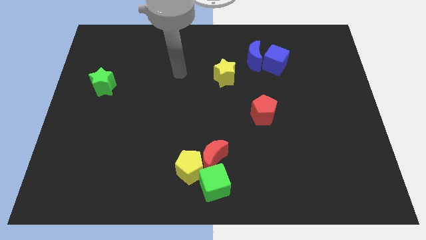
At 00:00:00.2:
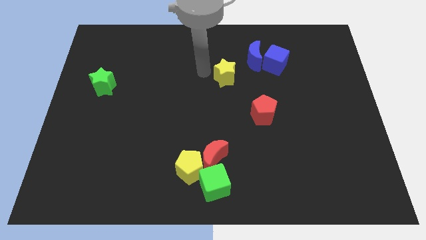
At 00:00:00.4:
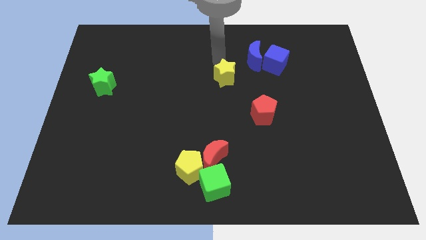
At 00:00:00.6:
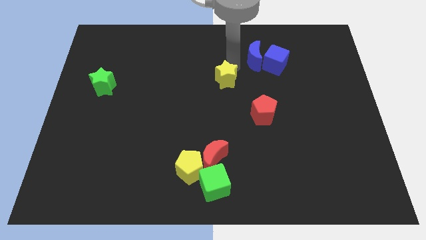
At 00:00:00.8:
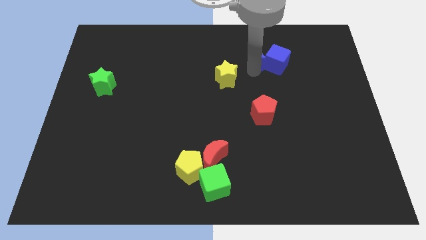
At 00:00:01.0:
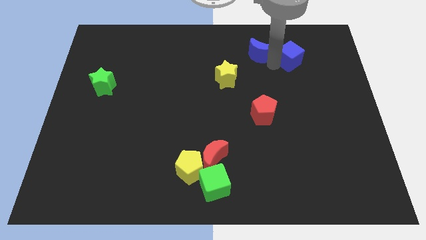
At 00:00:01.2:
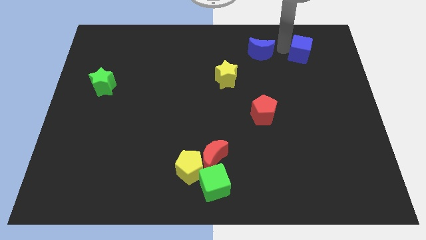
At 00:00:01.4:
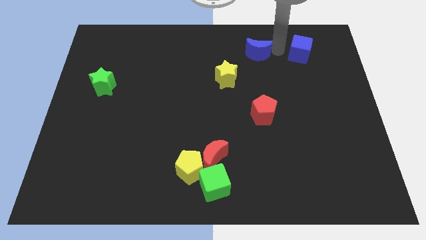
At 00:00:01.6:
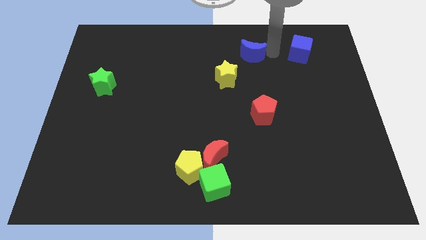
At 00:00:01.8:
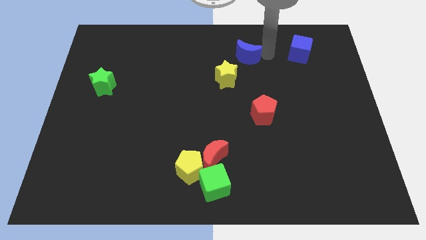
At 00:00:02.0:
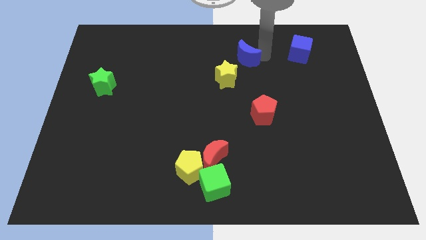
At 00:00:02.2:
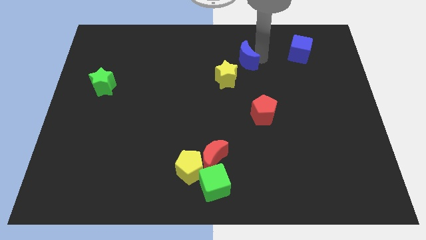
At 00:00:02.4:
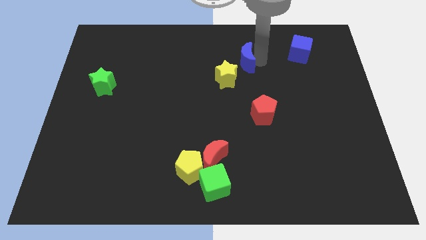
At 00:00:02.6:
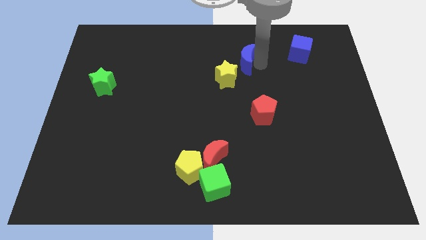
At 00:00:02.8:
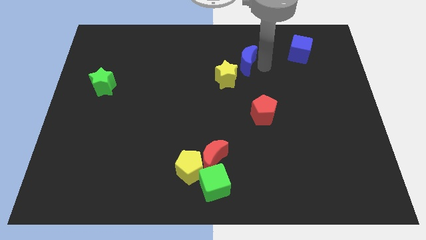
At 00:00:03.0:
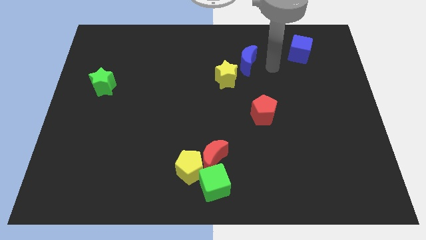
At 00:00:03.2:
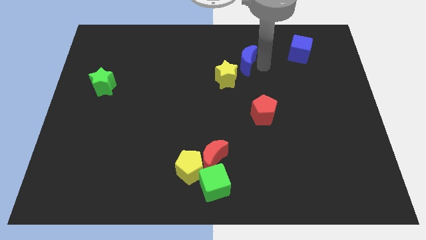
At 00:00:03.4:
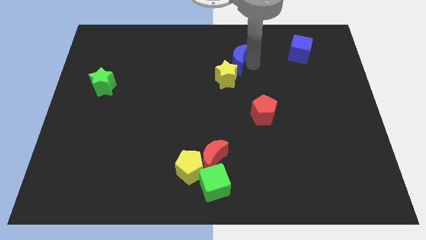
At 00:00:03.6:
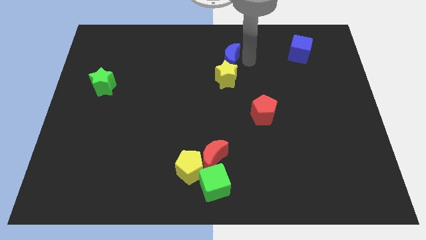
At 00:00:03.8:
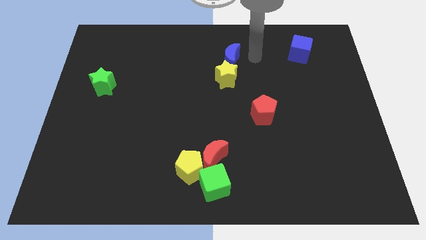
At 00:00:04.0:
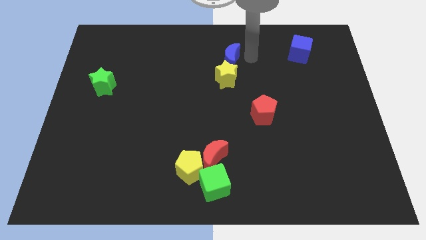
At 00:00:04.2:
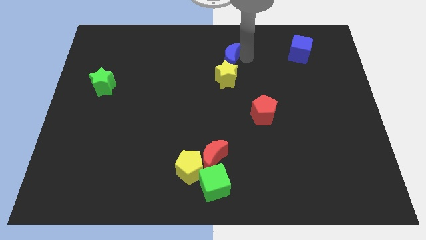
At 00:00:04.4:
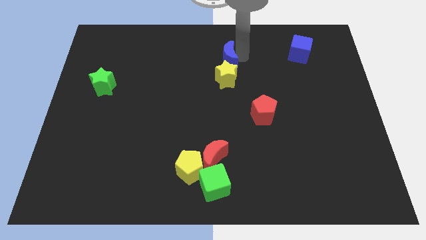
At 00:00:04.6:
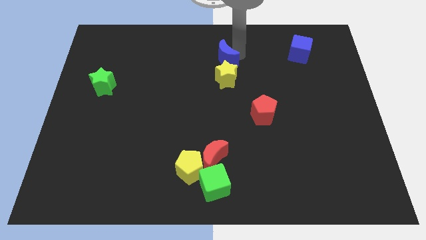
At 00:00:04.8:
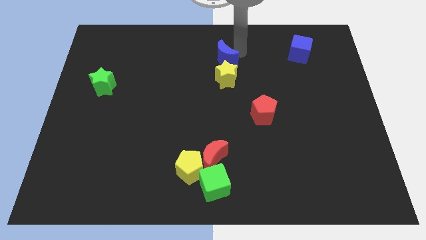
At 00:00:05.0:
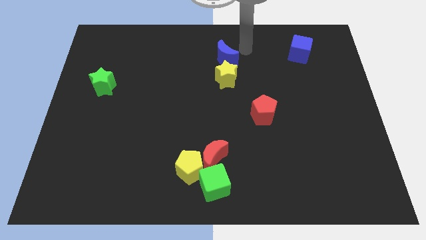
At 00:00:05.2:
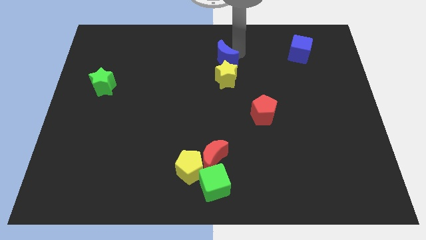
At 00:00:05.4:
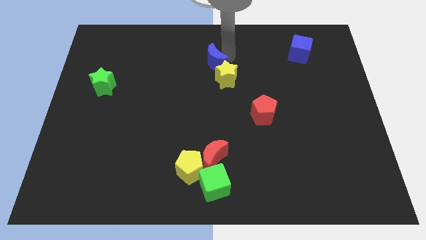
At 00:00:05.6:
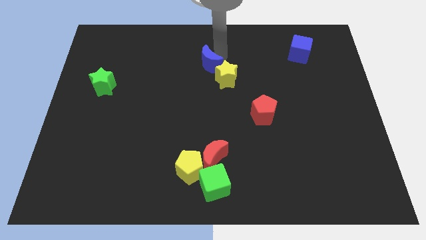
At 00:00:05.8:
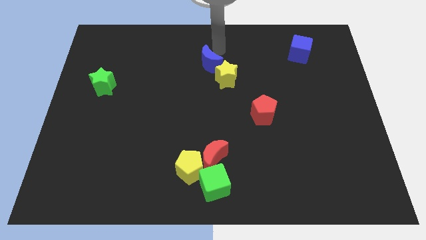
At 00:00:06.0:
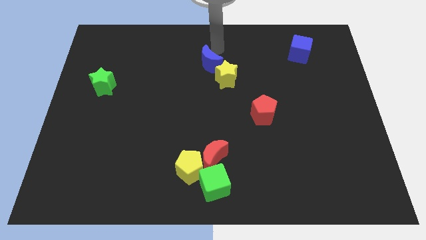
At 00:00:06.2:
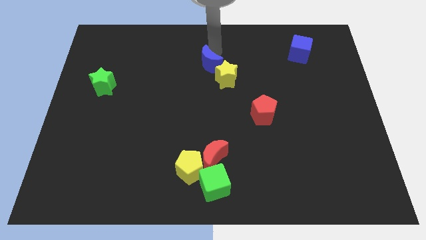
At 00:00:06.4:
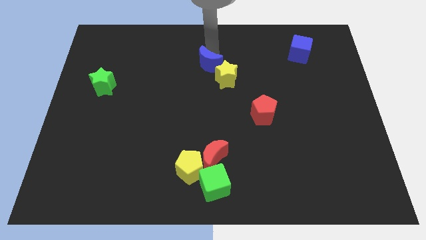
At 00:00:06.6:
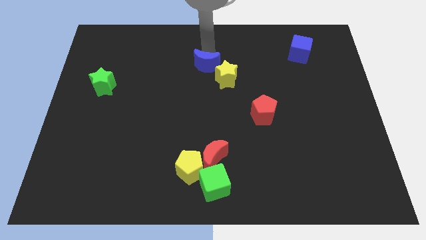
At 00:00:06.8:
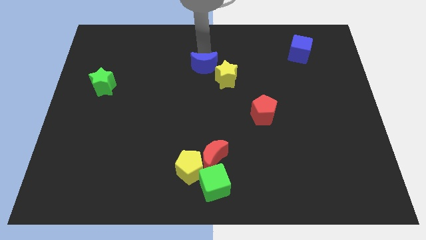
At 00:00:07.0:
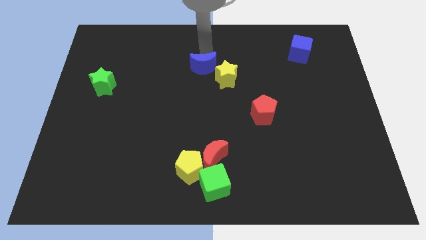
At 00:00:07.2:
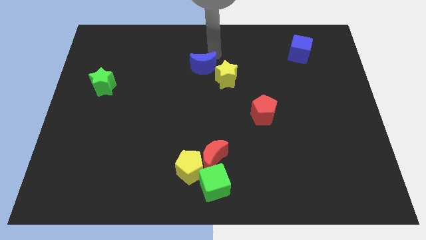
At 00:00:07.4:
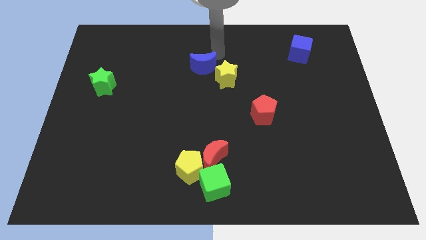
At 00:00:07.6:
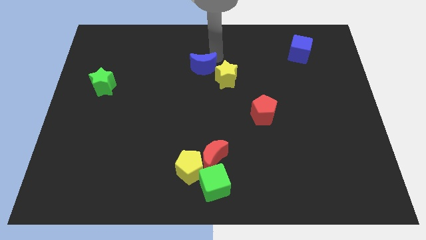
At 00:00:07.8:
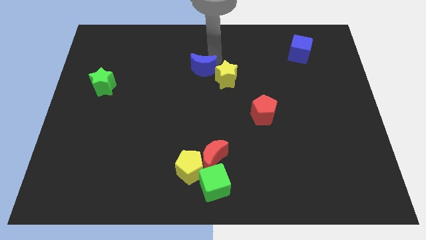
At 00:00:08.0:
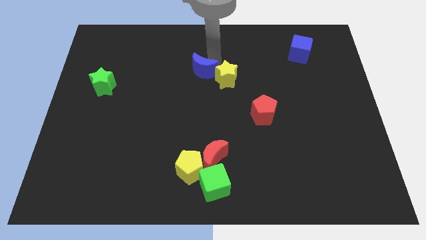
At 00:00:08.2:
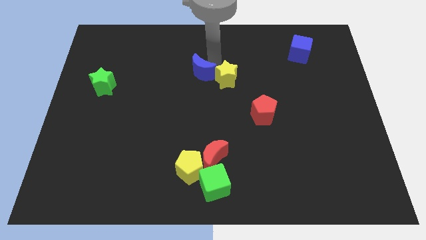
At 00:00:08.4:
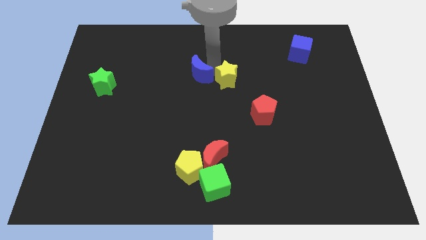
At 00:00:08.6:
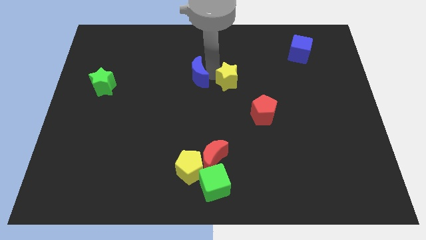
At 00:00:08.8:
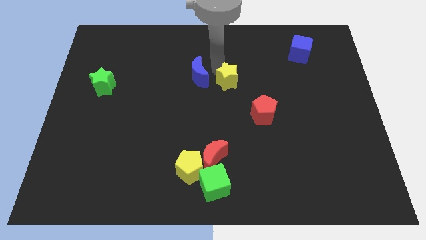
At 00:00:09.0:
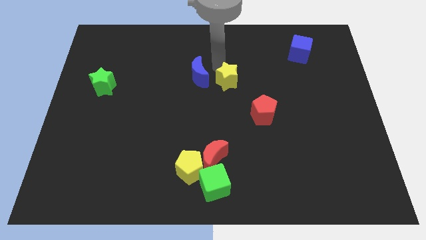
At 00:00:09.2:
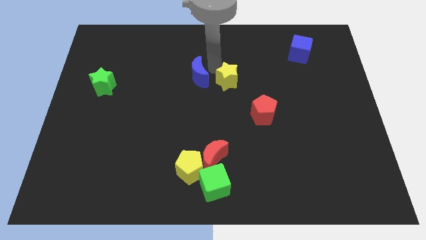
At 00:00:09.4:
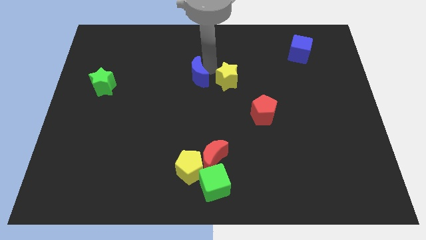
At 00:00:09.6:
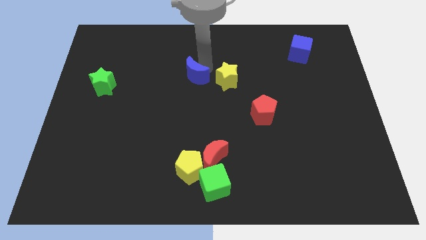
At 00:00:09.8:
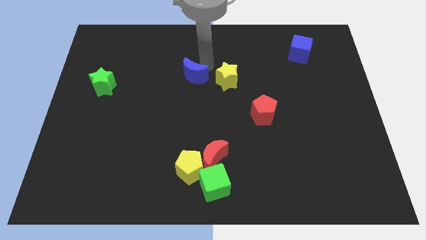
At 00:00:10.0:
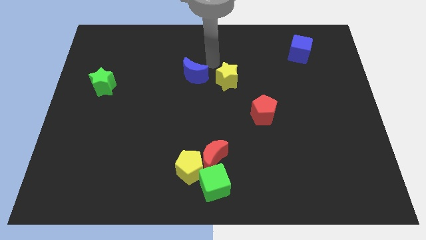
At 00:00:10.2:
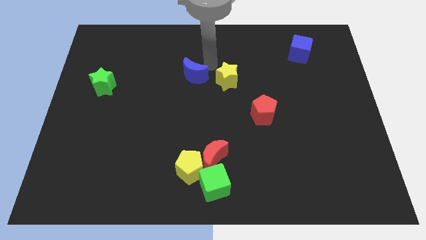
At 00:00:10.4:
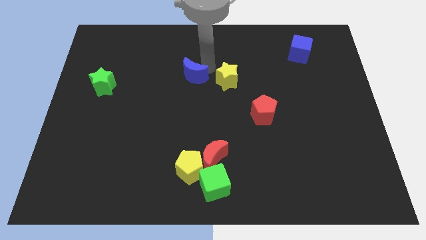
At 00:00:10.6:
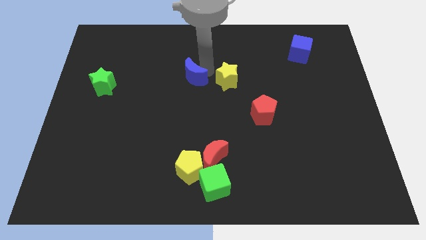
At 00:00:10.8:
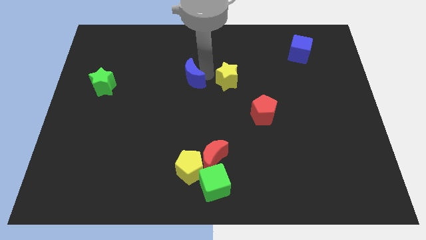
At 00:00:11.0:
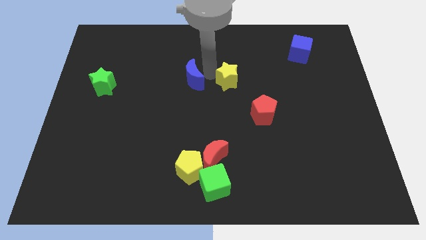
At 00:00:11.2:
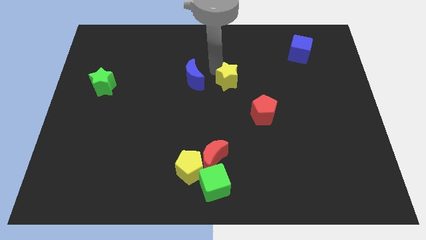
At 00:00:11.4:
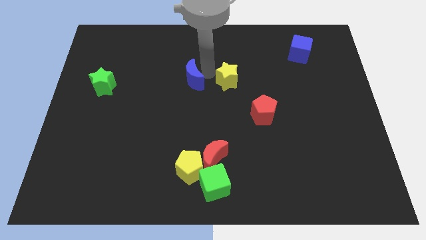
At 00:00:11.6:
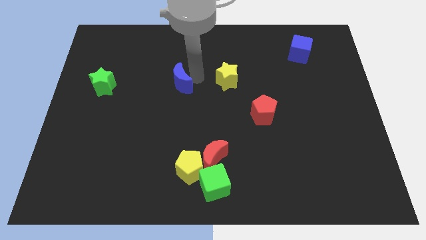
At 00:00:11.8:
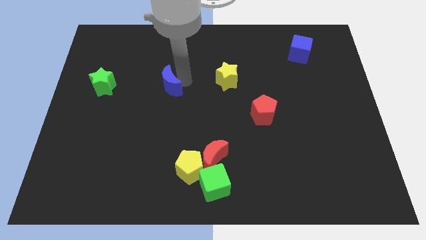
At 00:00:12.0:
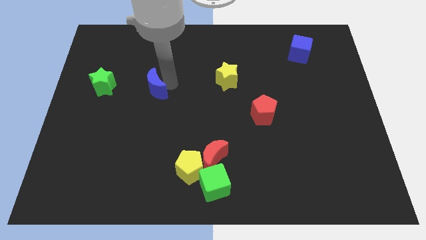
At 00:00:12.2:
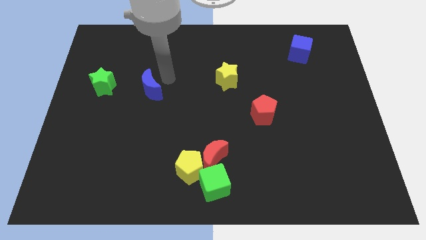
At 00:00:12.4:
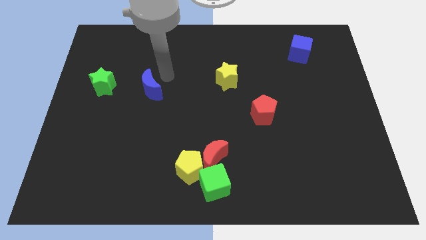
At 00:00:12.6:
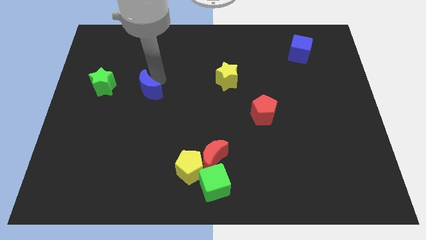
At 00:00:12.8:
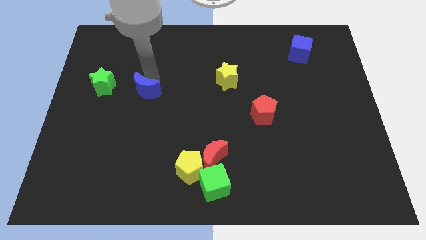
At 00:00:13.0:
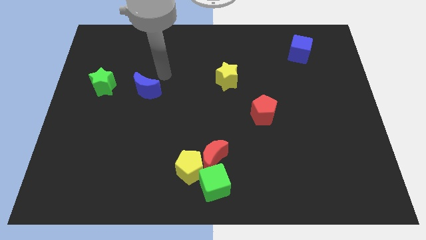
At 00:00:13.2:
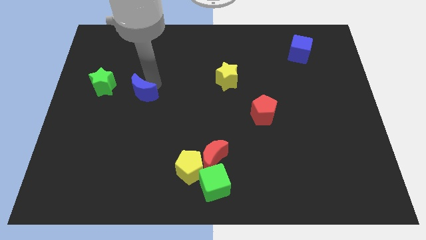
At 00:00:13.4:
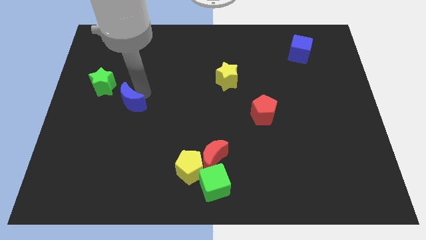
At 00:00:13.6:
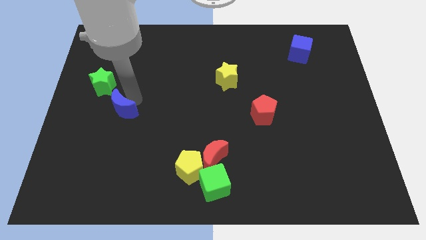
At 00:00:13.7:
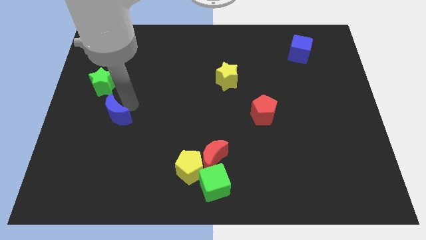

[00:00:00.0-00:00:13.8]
push the blue moon to the bottom side of the green star

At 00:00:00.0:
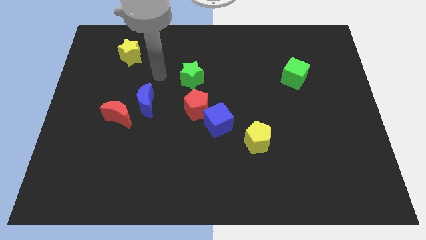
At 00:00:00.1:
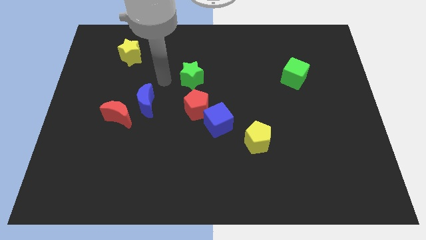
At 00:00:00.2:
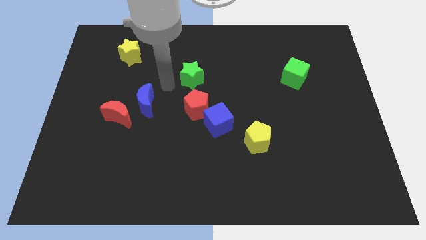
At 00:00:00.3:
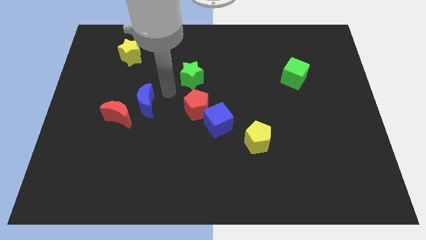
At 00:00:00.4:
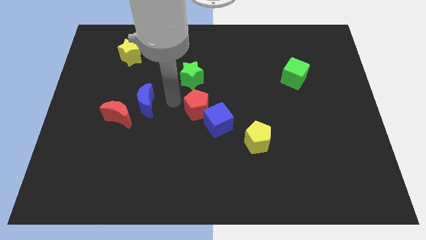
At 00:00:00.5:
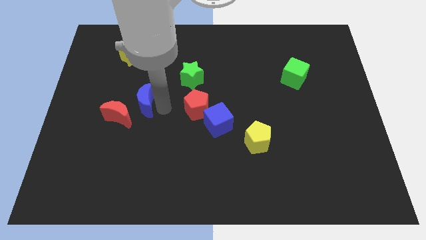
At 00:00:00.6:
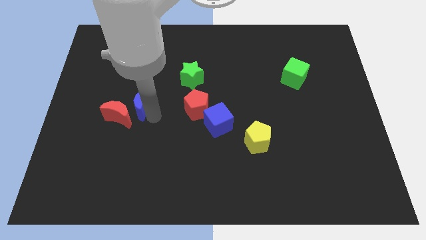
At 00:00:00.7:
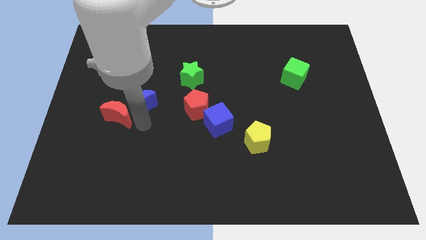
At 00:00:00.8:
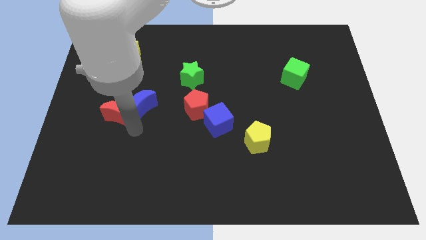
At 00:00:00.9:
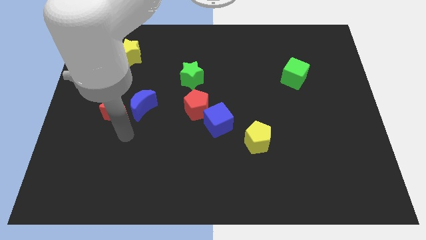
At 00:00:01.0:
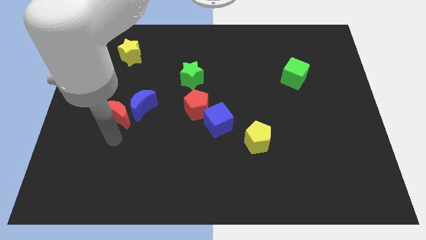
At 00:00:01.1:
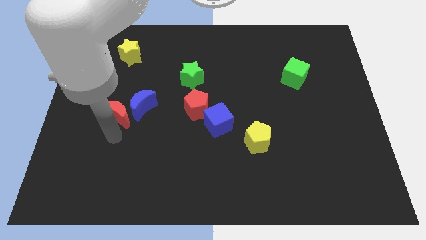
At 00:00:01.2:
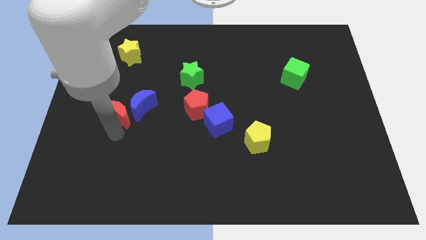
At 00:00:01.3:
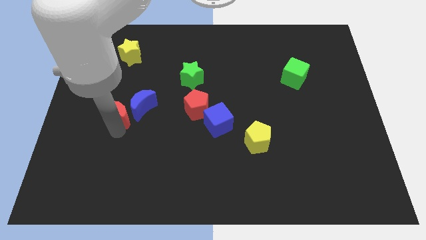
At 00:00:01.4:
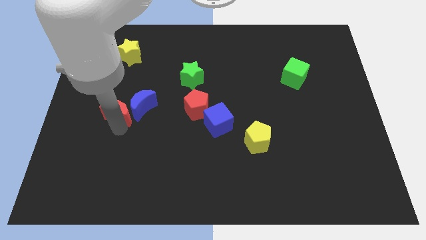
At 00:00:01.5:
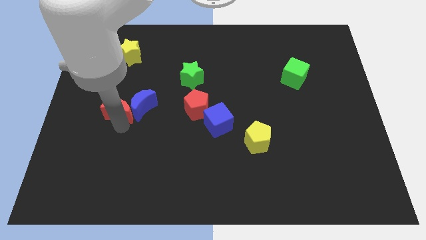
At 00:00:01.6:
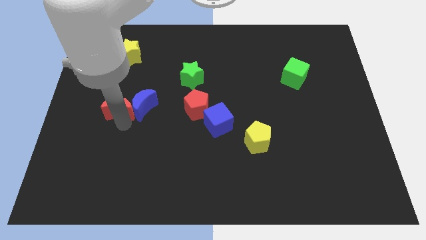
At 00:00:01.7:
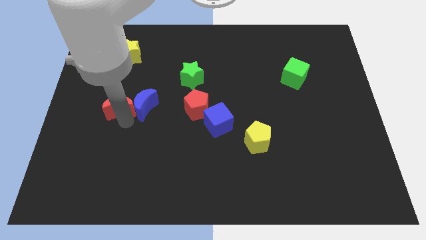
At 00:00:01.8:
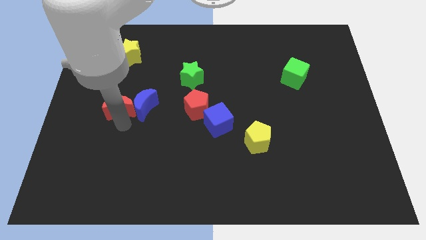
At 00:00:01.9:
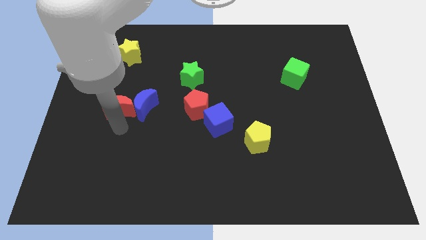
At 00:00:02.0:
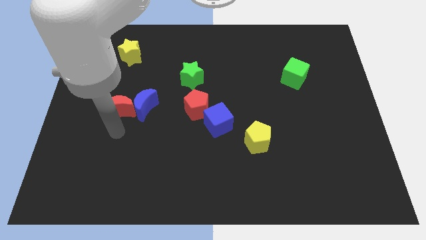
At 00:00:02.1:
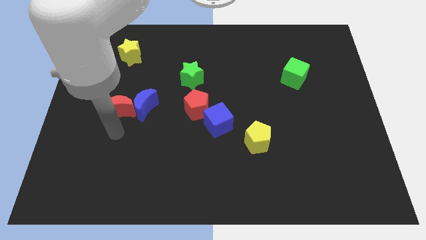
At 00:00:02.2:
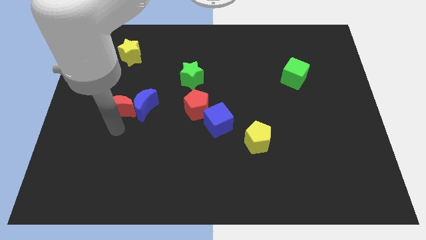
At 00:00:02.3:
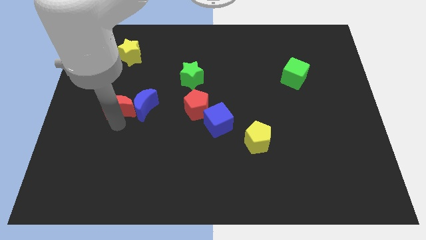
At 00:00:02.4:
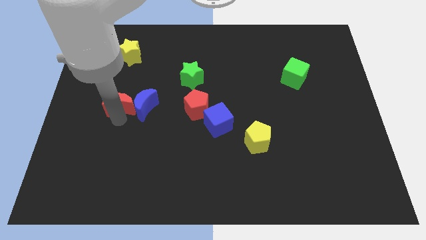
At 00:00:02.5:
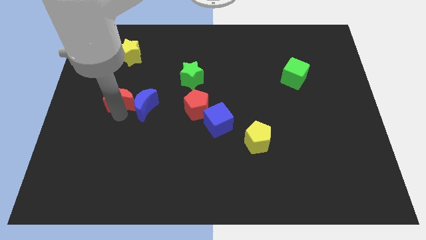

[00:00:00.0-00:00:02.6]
slide the red moon to the bottom side of the yellow star
